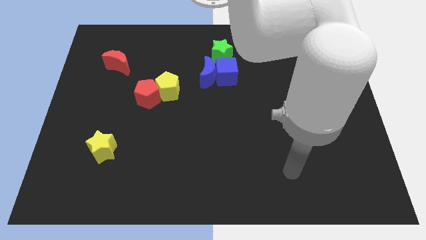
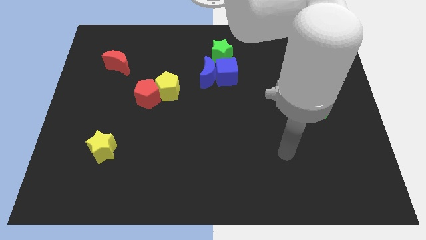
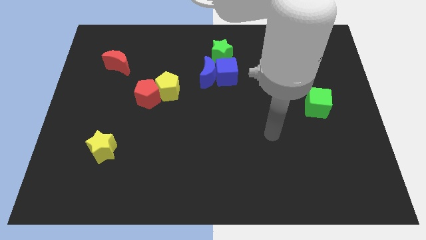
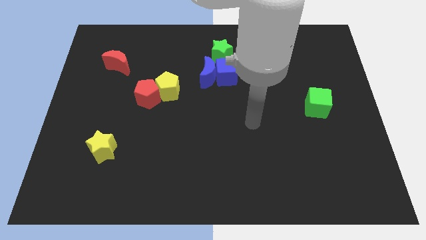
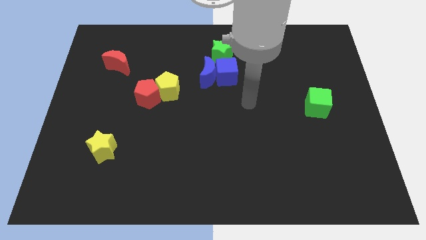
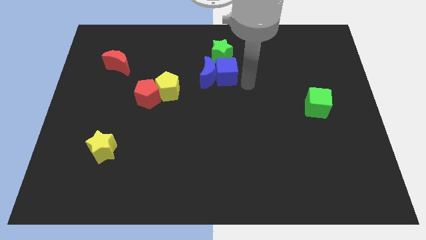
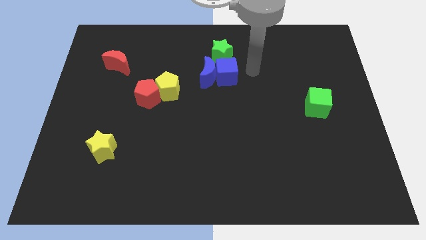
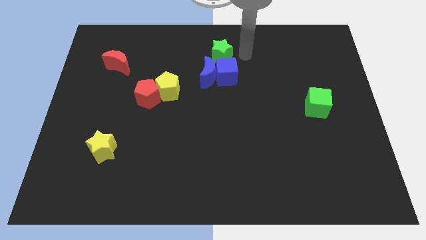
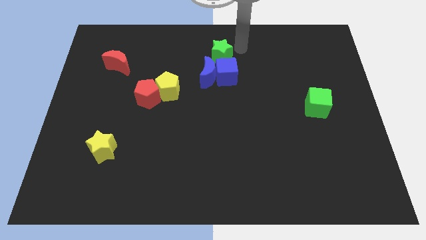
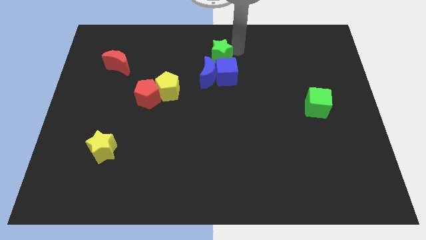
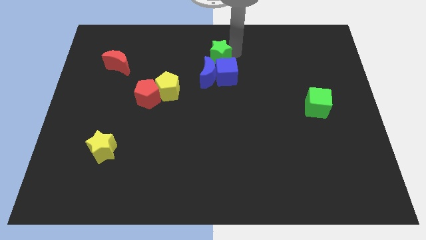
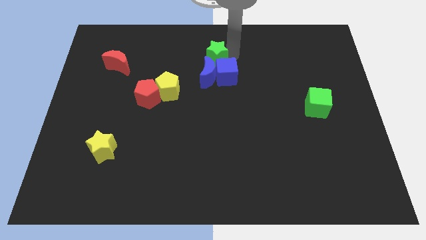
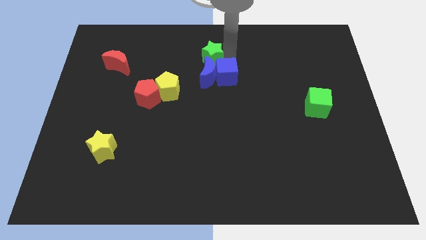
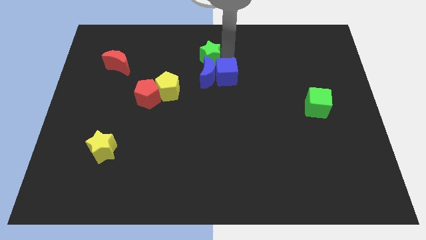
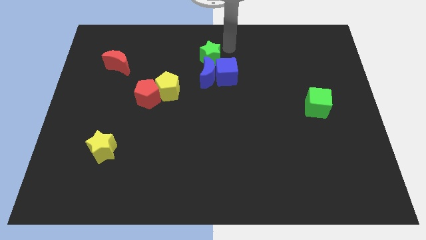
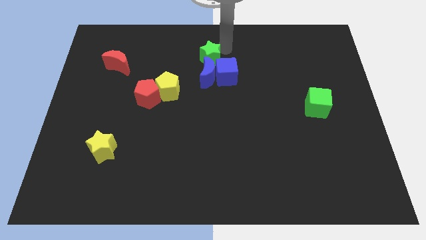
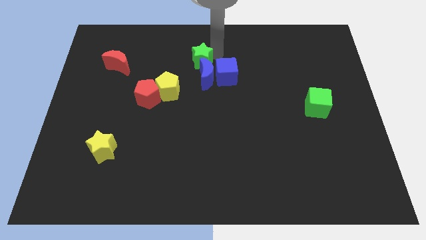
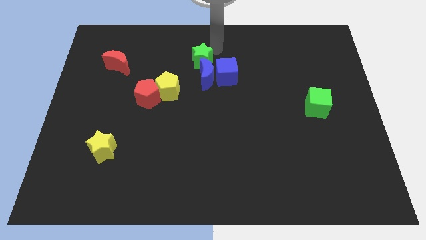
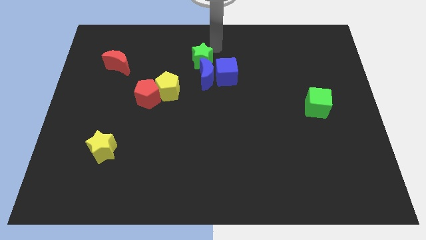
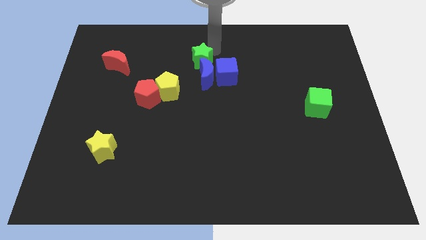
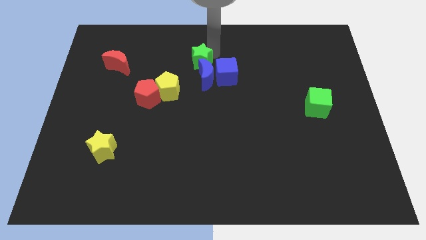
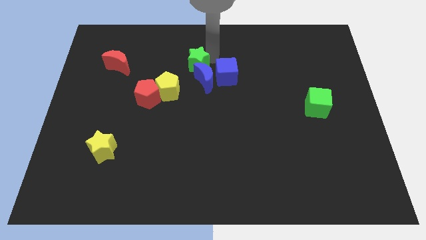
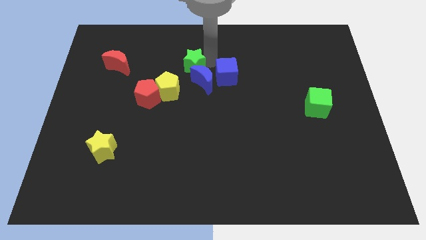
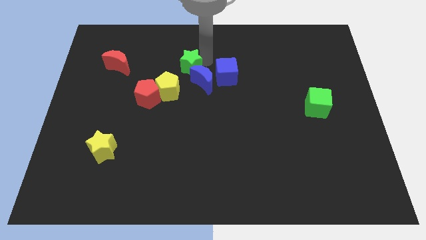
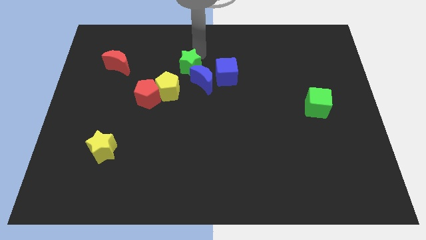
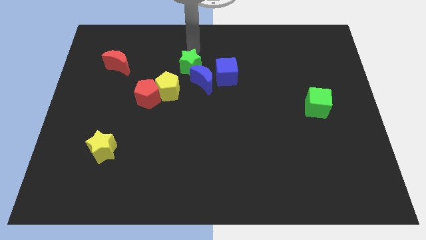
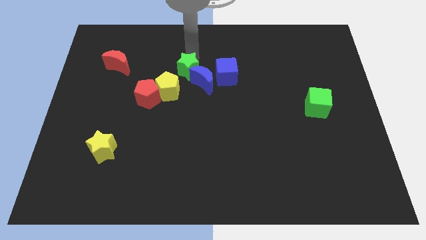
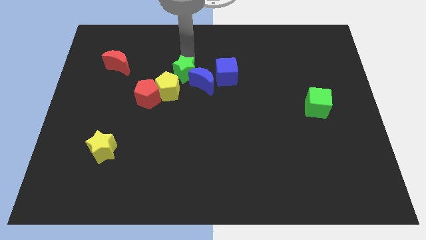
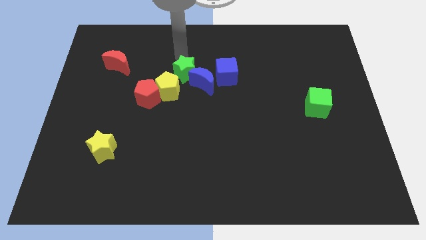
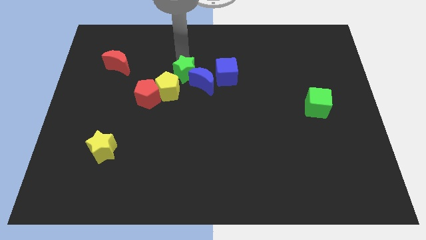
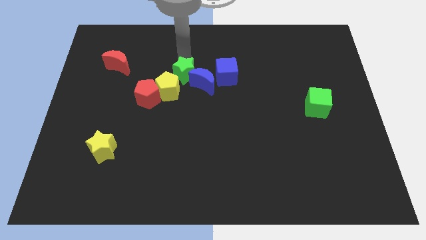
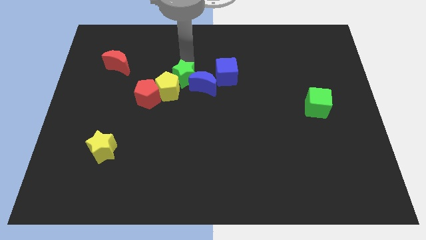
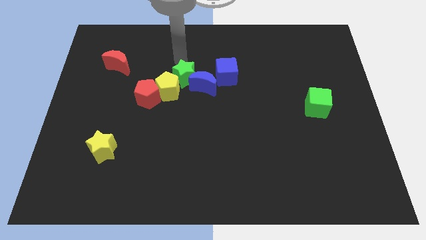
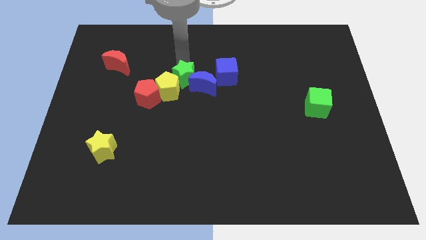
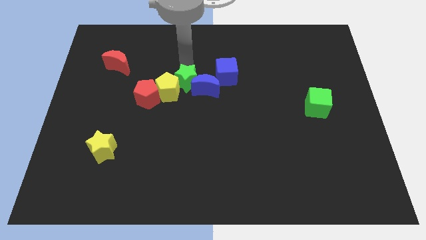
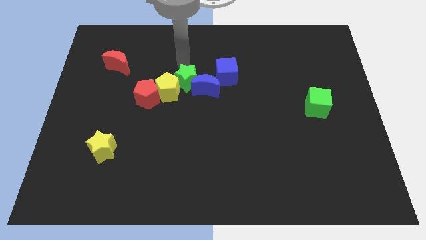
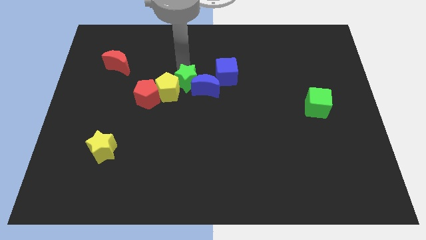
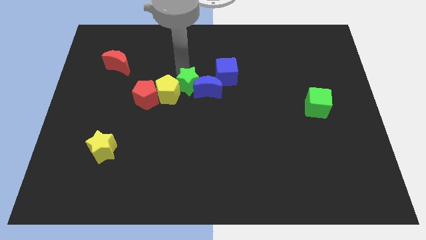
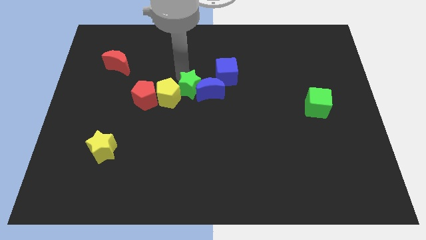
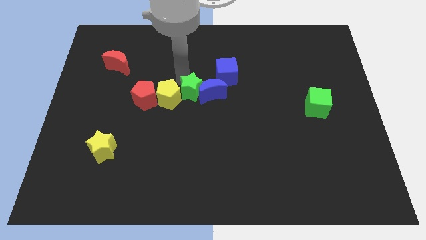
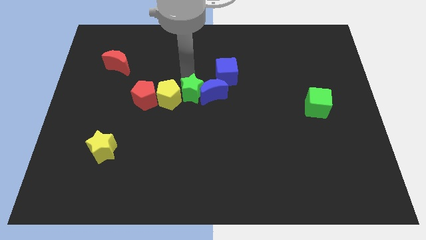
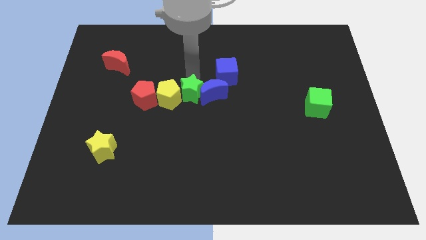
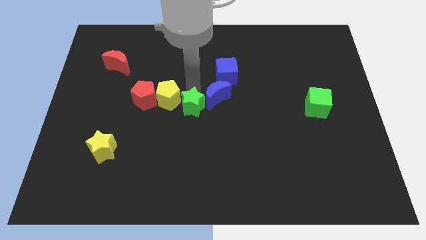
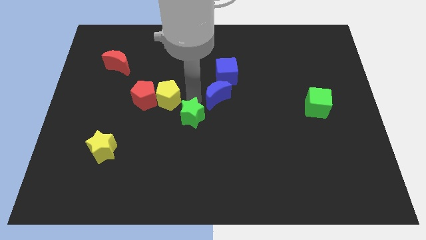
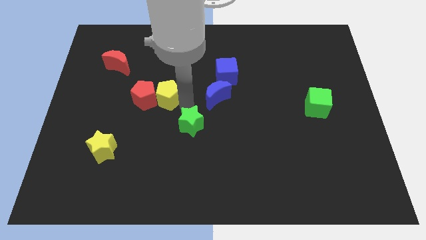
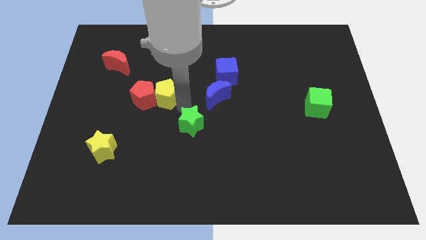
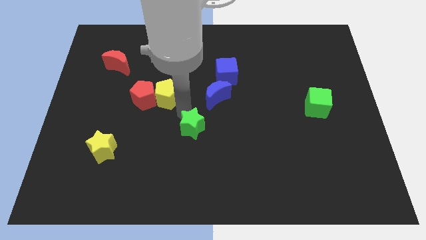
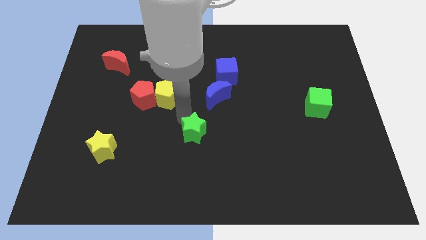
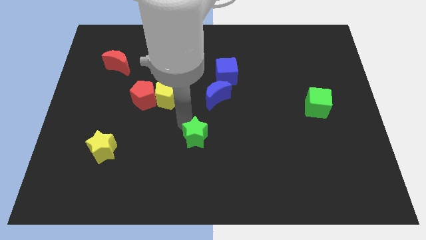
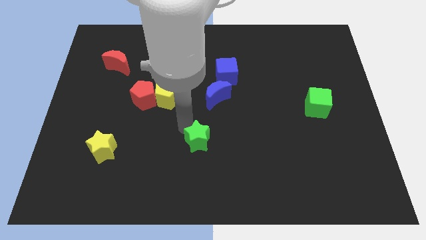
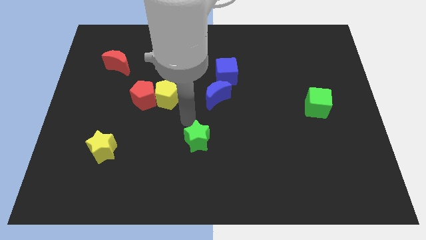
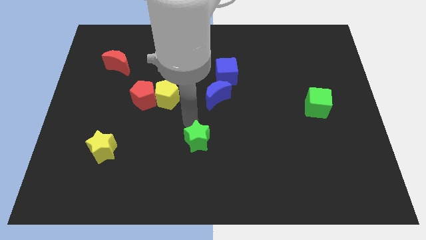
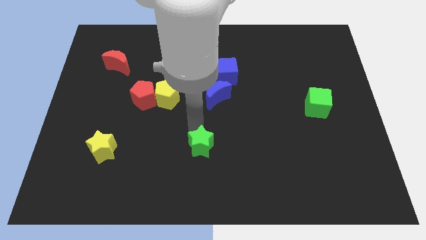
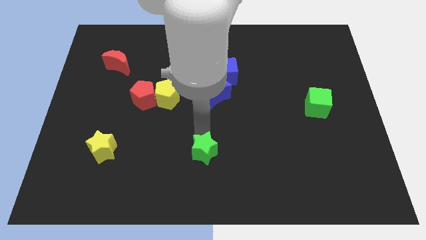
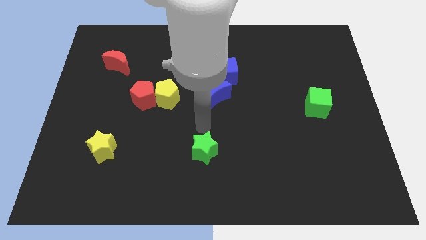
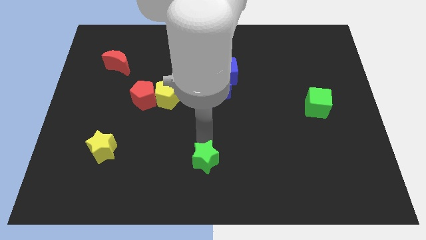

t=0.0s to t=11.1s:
push the green star to the bottom side

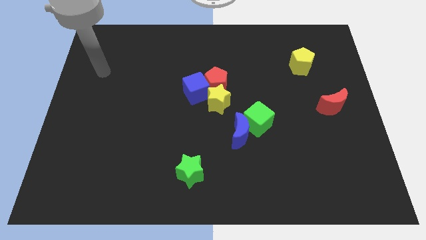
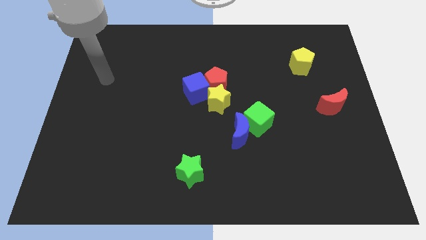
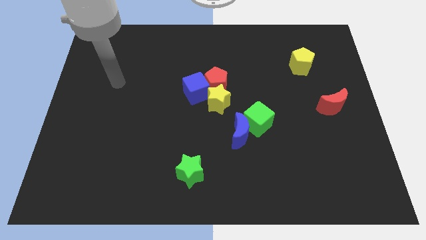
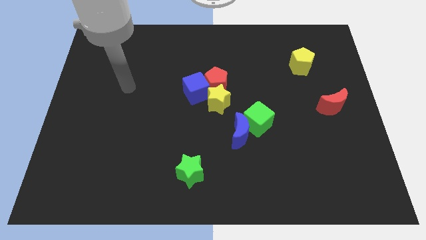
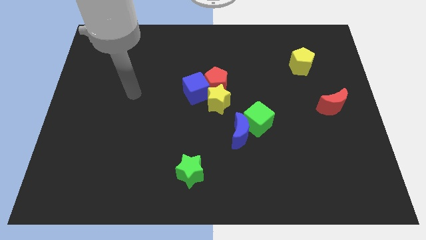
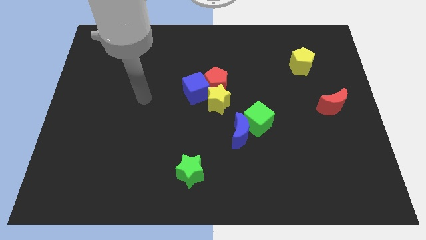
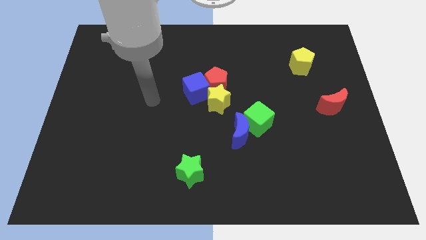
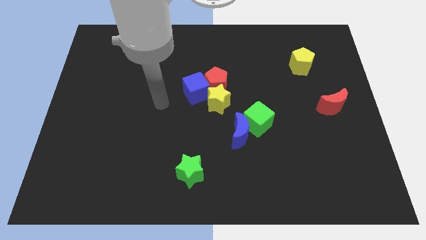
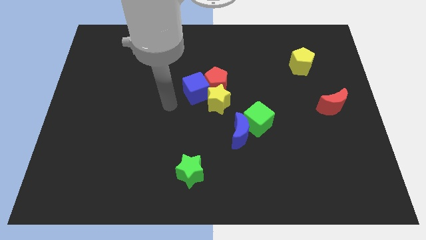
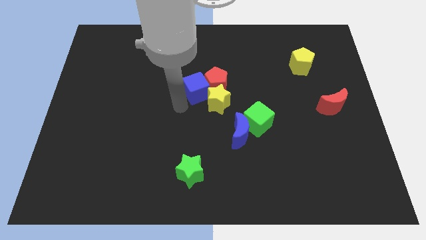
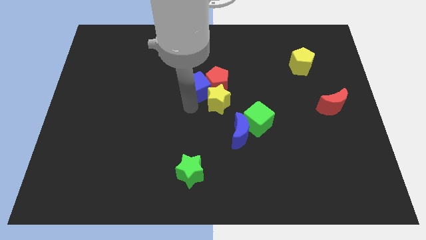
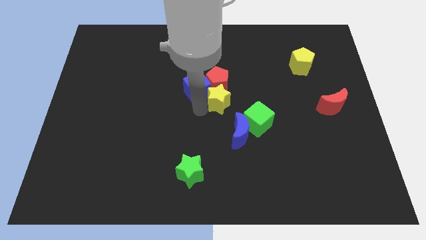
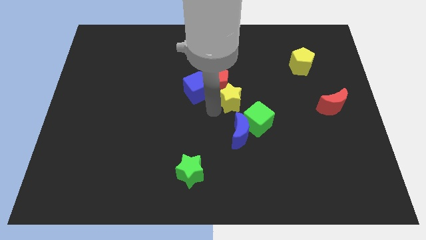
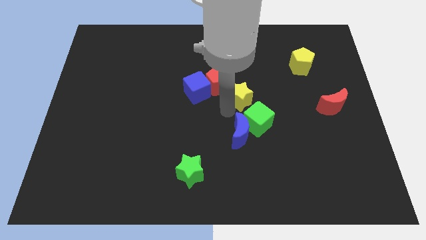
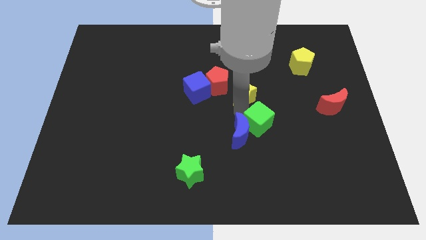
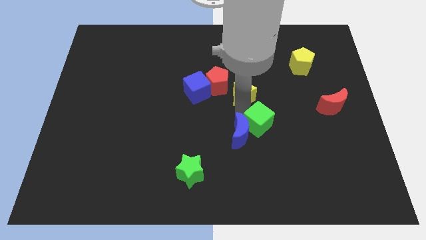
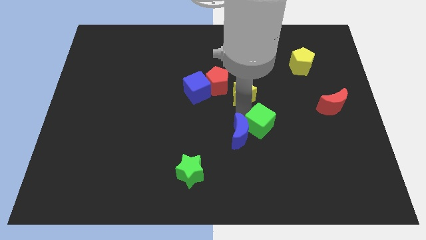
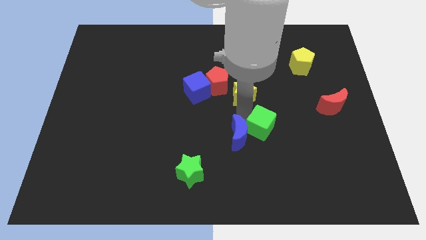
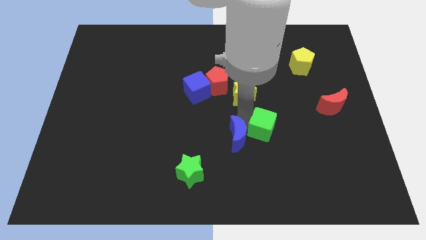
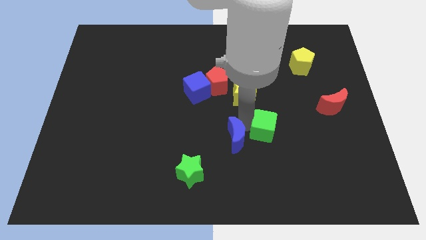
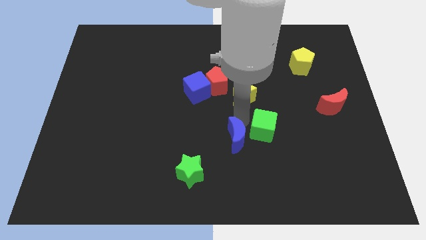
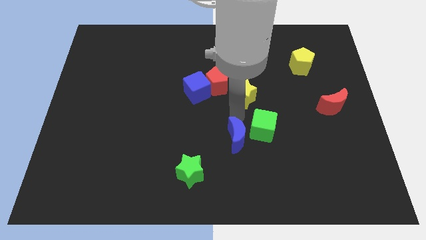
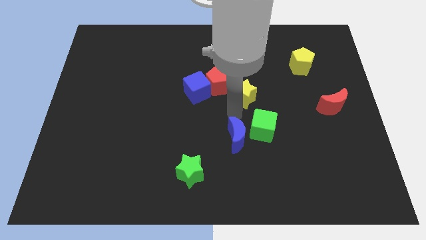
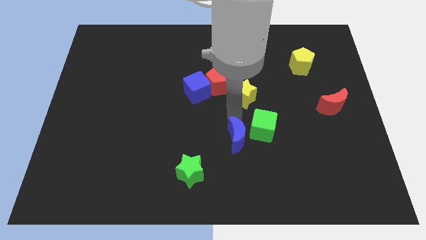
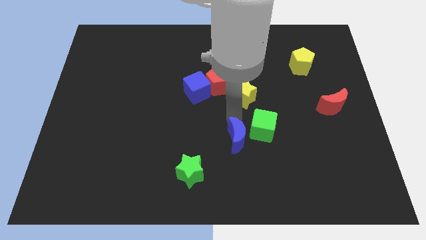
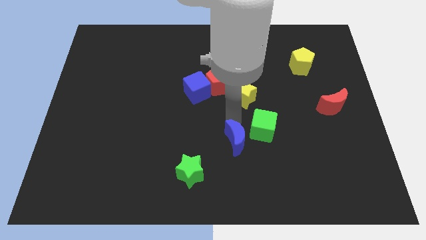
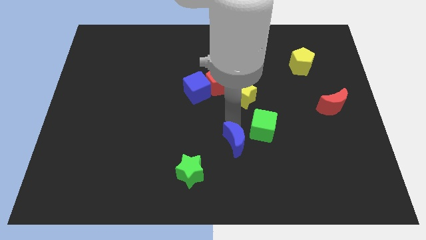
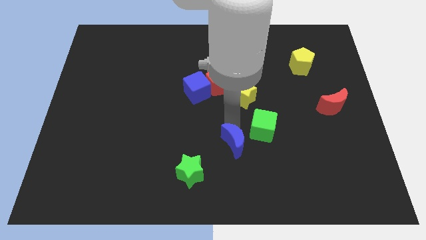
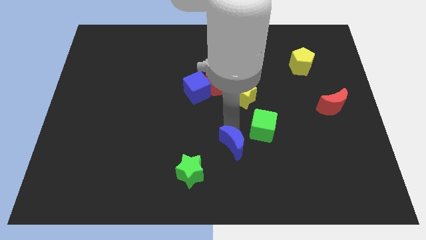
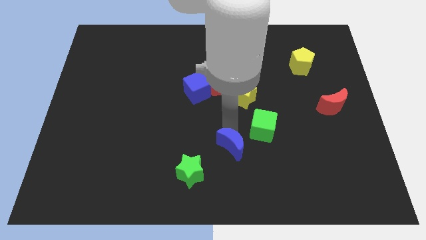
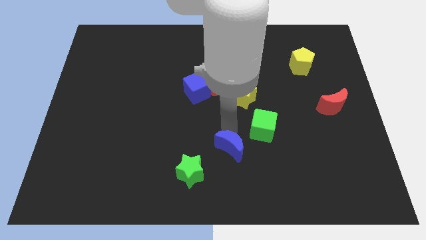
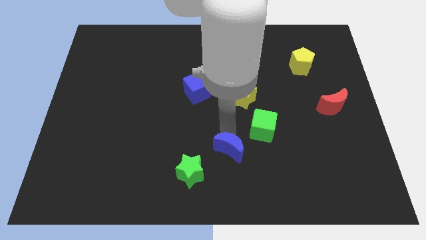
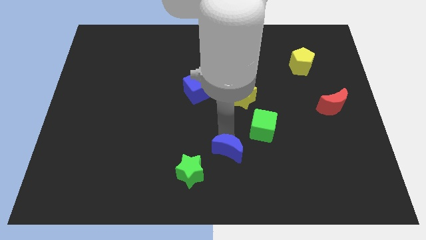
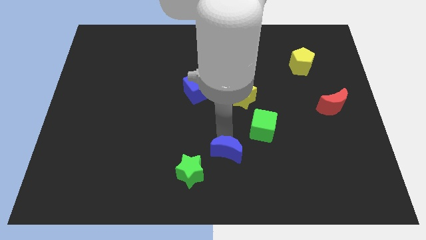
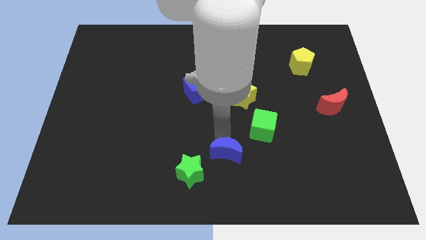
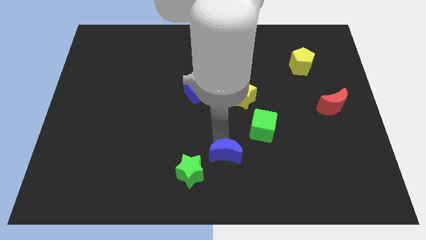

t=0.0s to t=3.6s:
put the blue moon to the bottom side
